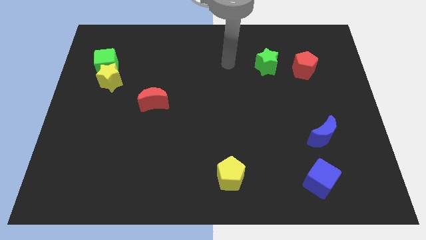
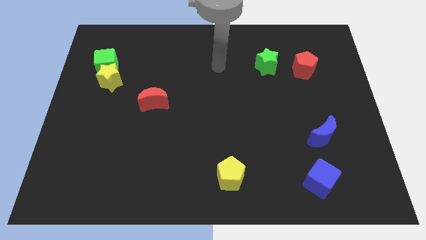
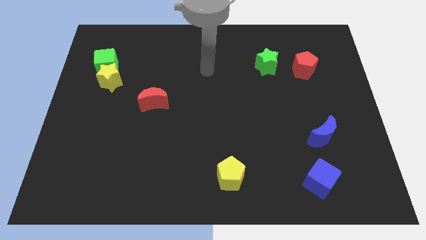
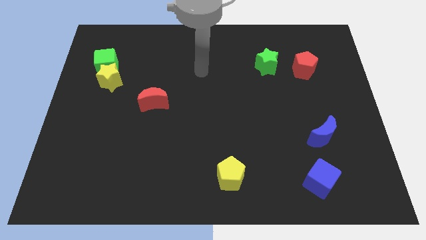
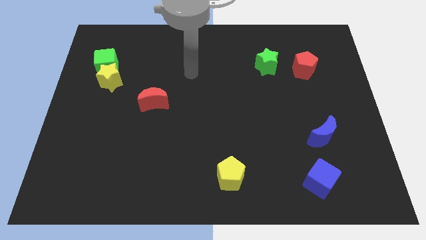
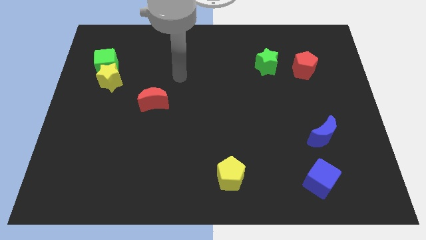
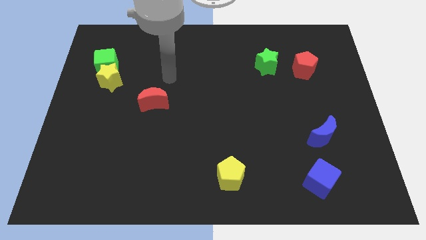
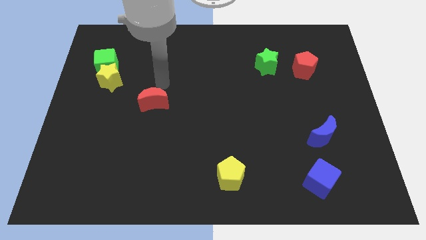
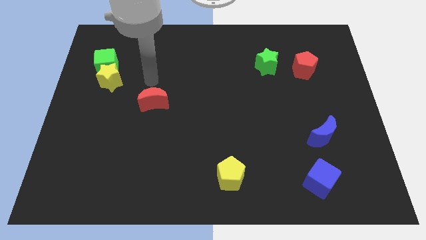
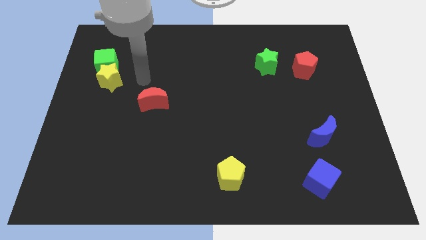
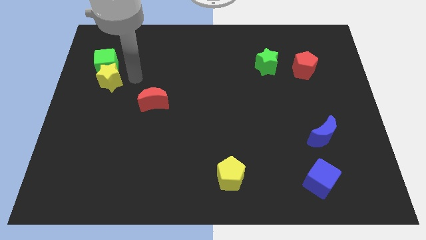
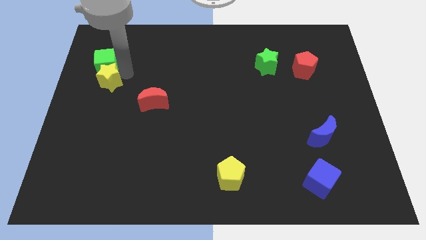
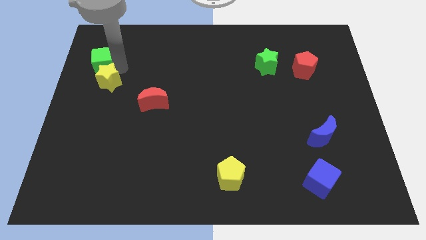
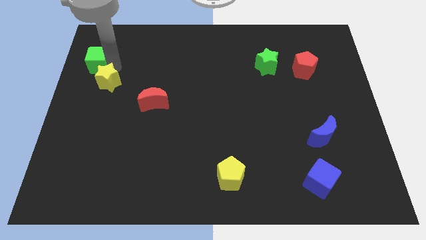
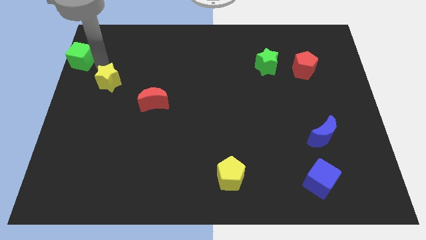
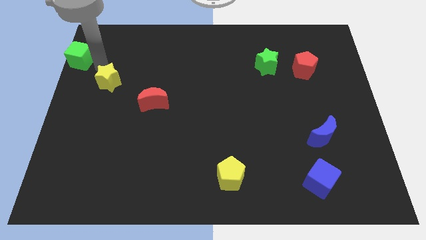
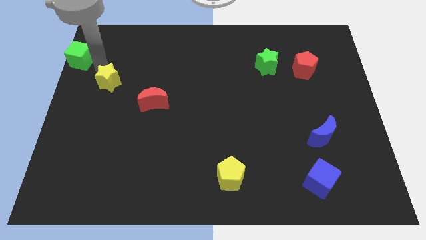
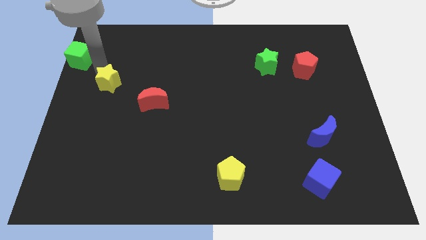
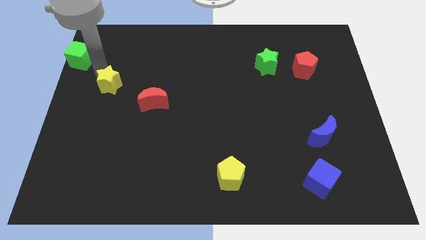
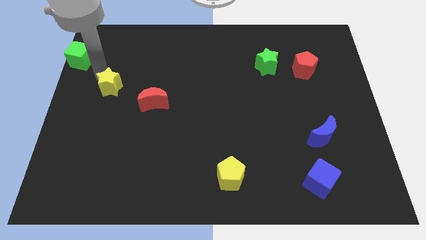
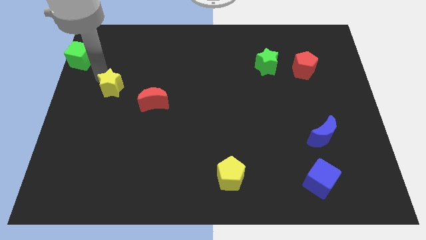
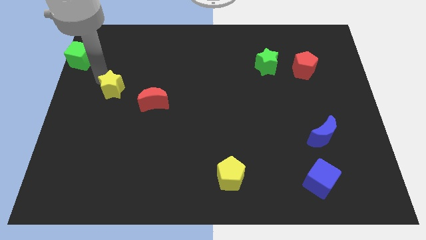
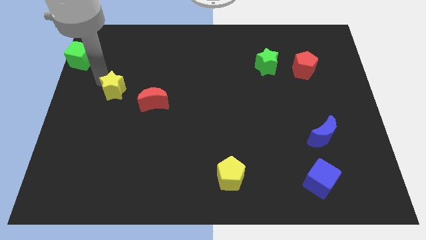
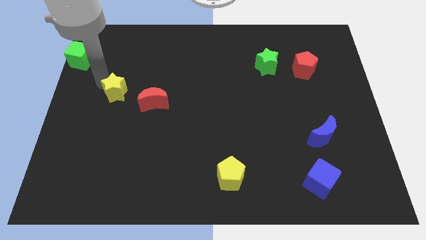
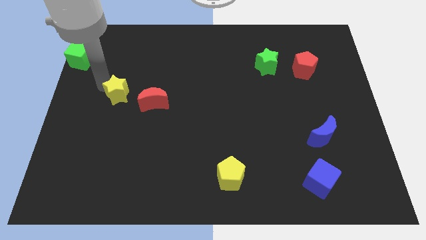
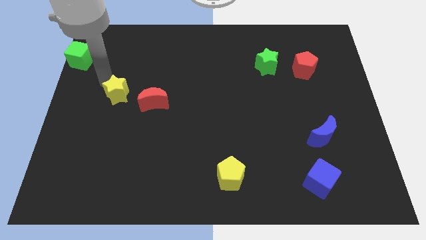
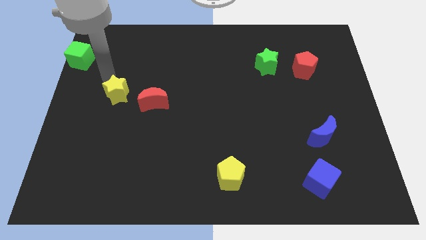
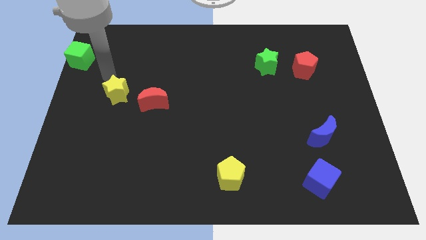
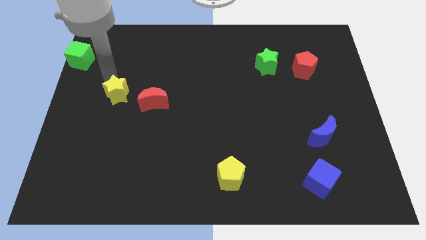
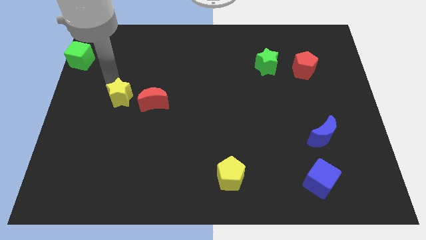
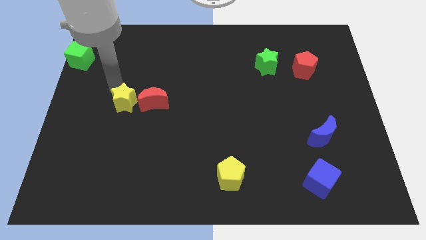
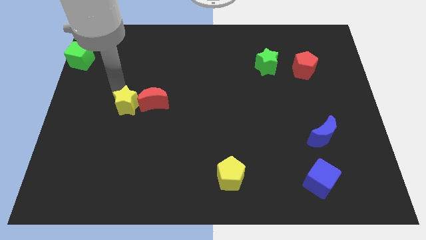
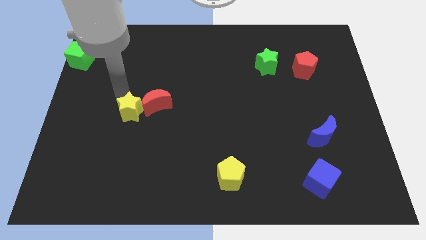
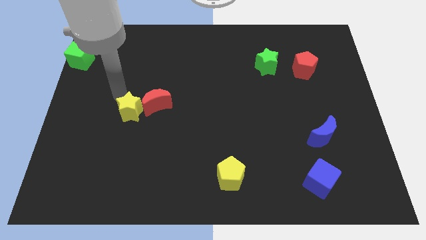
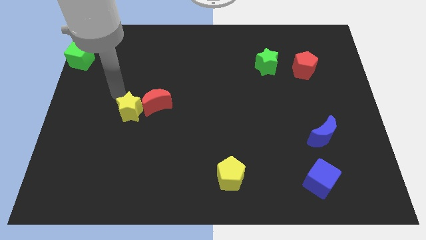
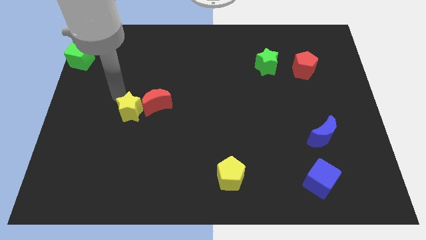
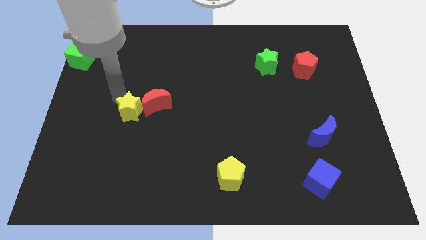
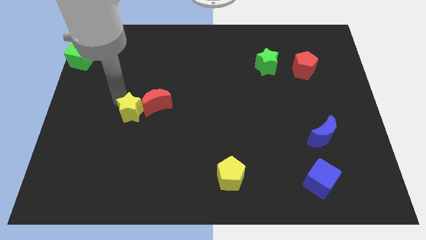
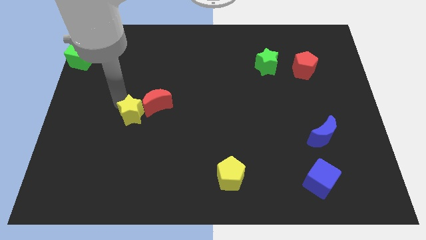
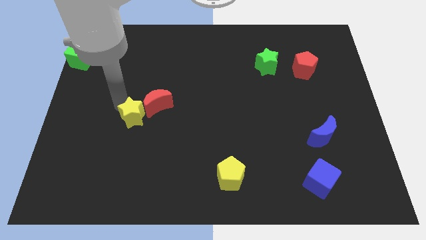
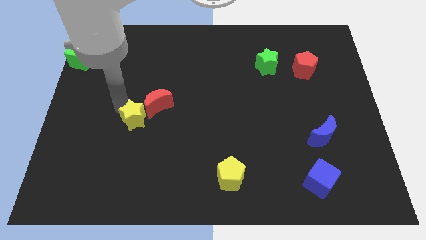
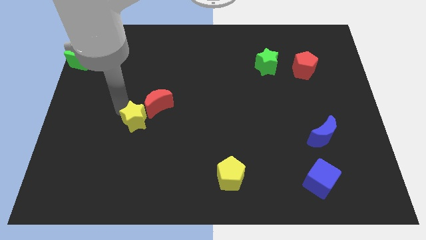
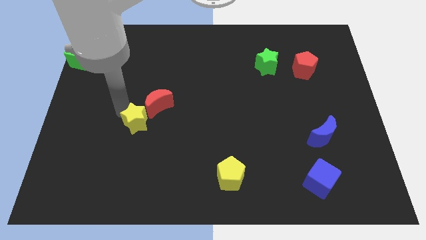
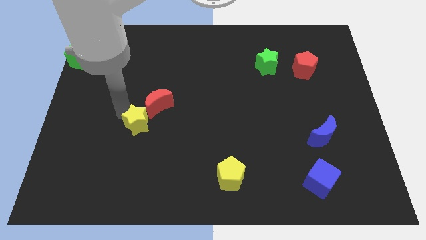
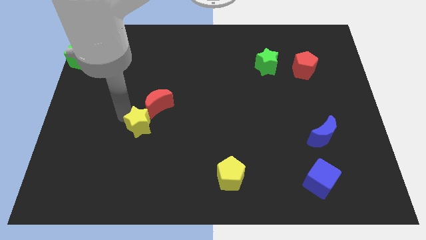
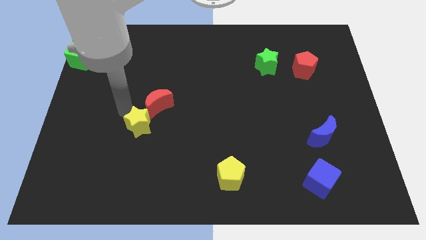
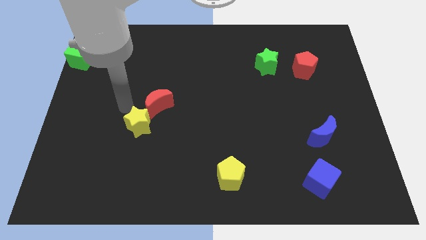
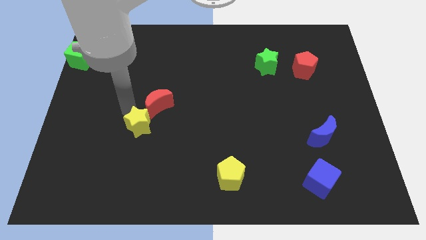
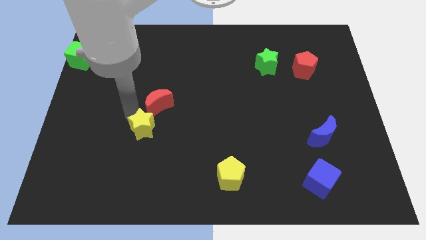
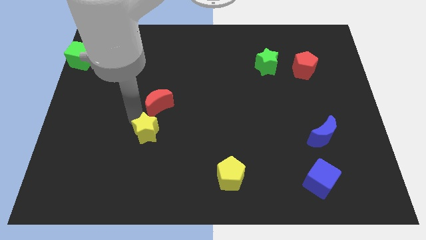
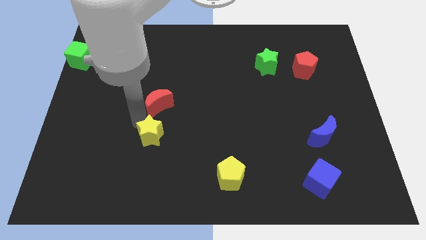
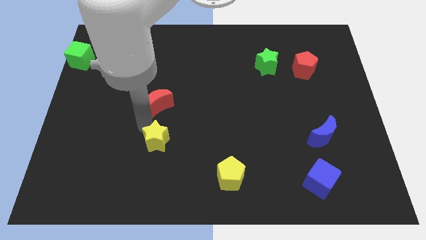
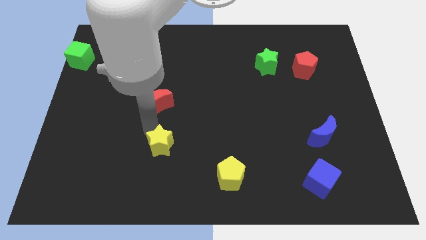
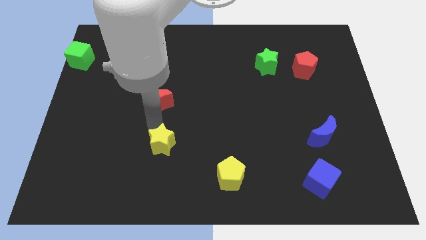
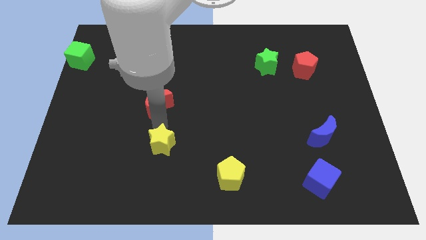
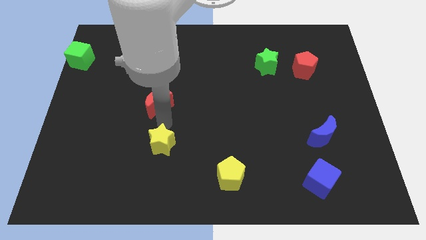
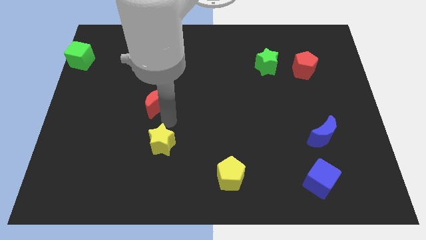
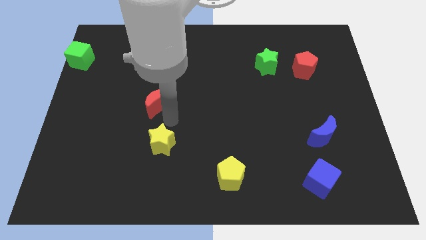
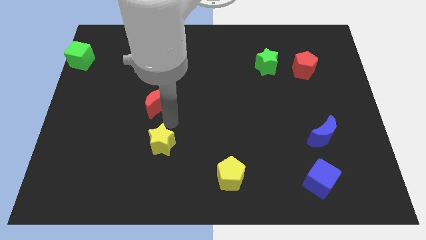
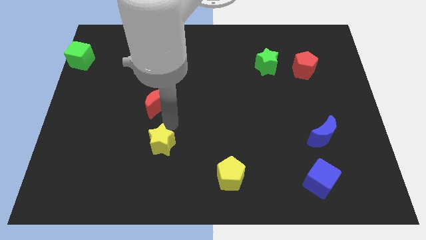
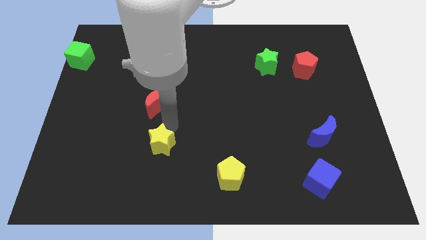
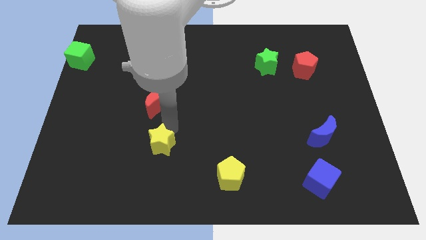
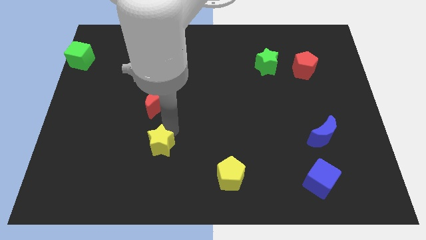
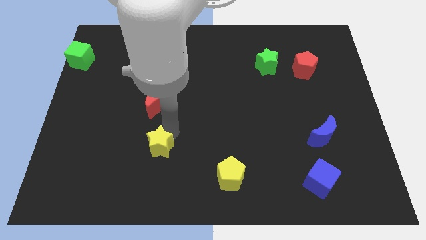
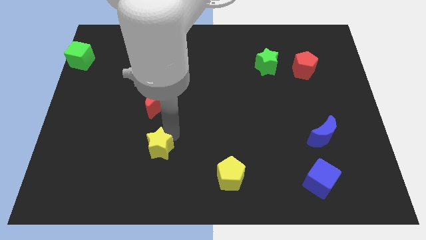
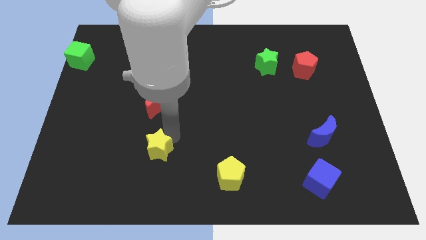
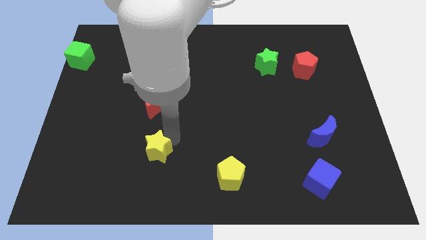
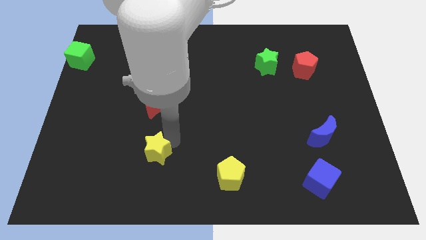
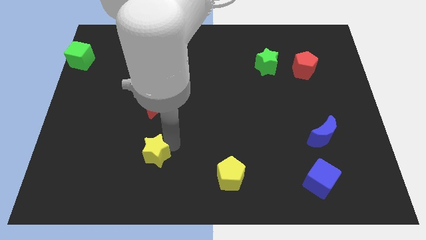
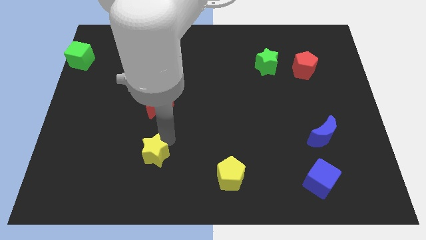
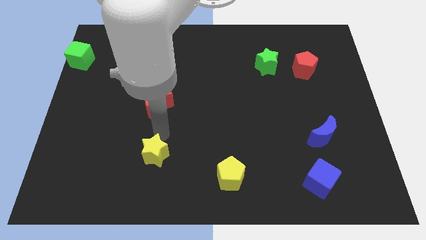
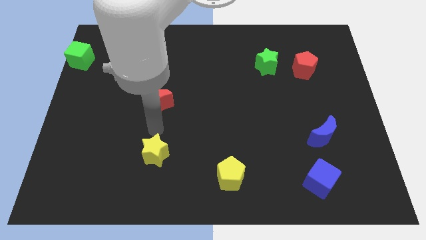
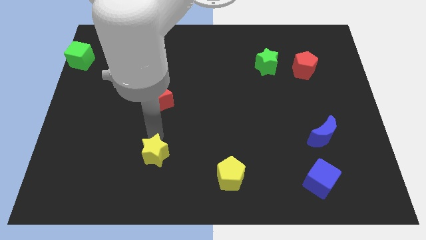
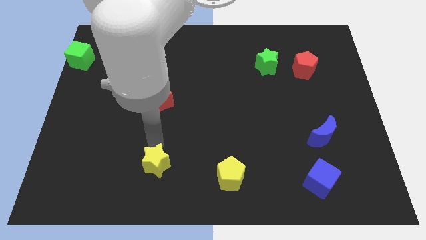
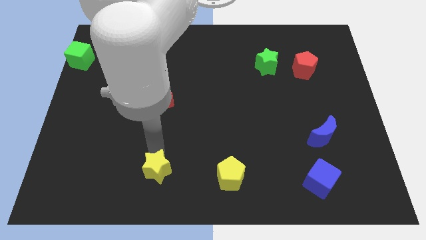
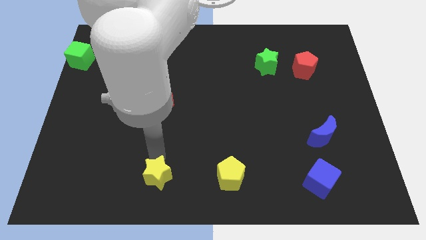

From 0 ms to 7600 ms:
move the yellow star to the bottom side
